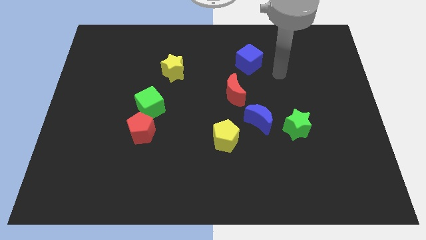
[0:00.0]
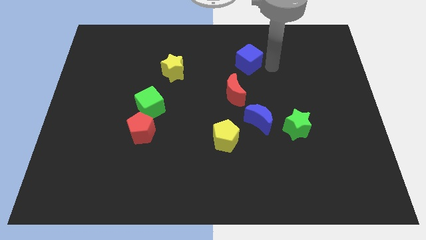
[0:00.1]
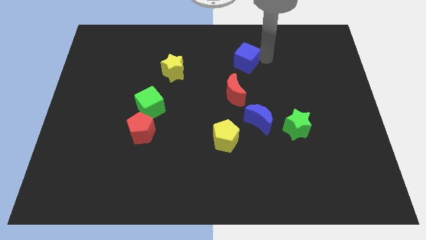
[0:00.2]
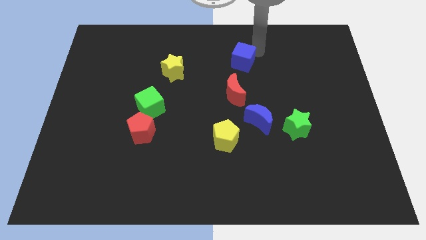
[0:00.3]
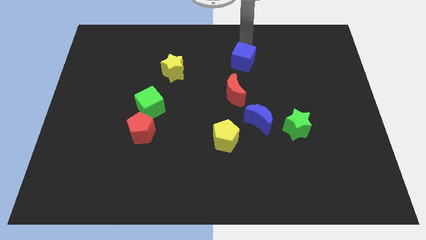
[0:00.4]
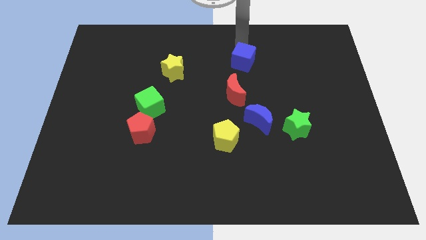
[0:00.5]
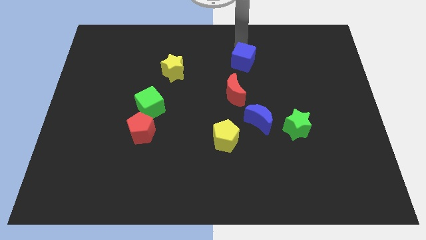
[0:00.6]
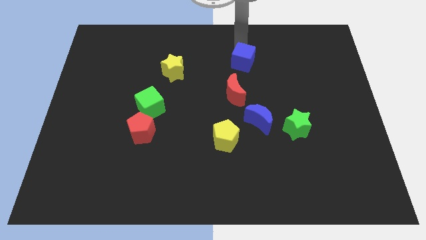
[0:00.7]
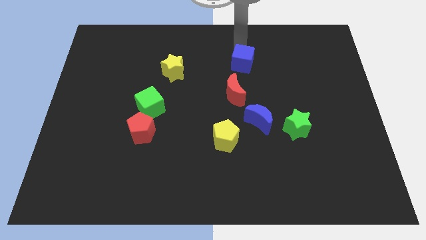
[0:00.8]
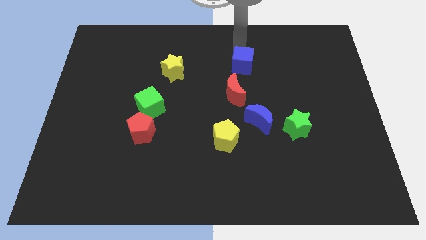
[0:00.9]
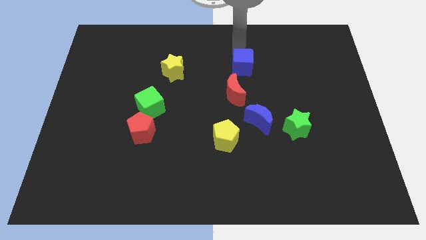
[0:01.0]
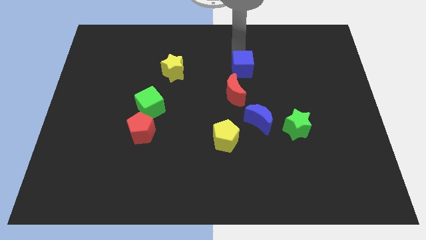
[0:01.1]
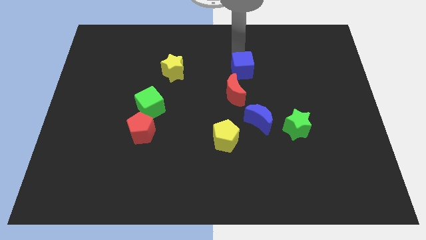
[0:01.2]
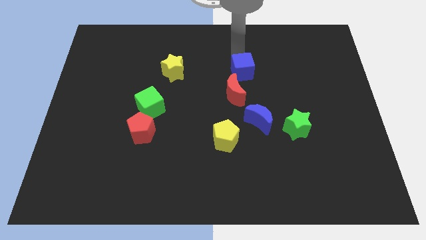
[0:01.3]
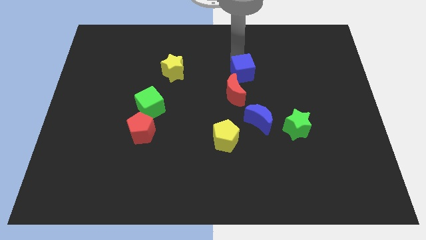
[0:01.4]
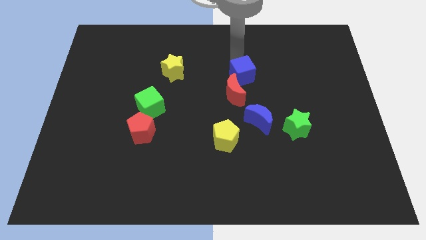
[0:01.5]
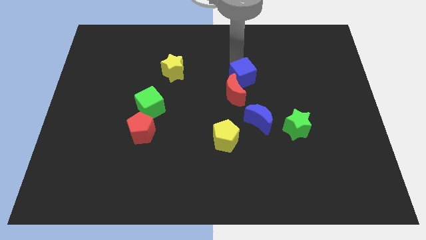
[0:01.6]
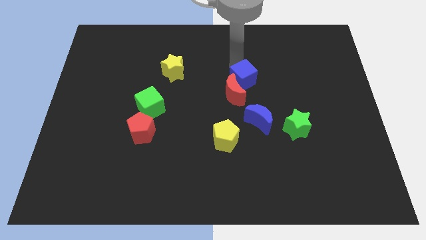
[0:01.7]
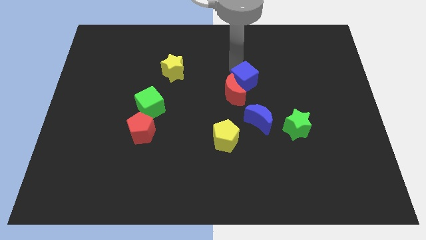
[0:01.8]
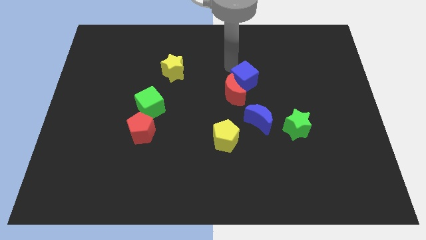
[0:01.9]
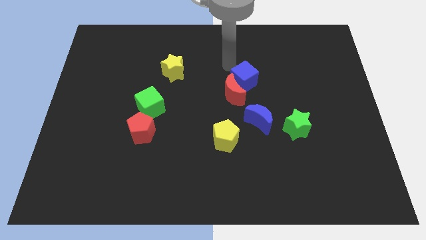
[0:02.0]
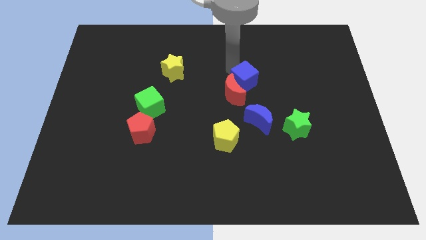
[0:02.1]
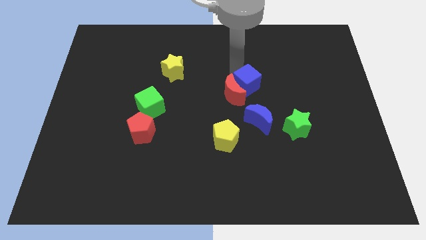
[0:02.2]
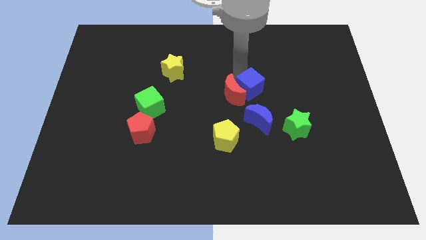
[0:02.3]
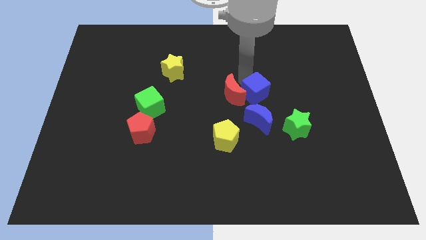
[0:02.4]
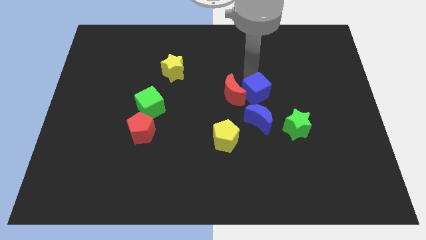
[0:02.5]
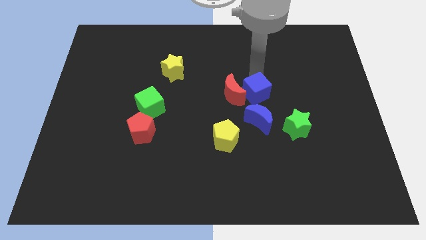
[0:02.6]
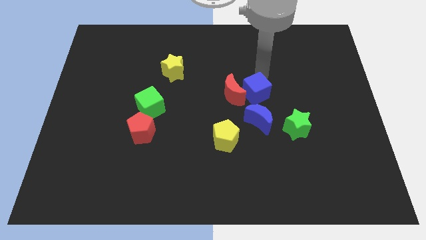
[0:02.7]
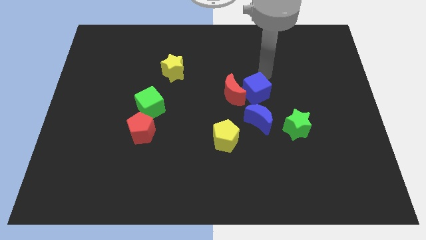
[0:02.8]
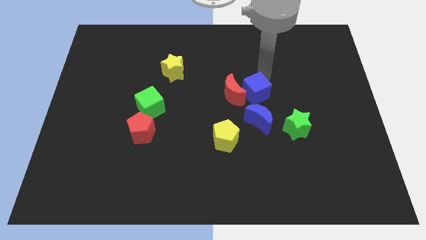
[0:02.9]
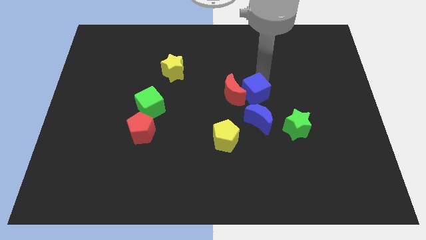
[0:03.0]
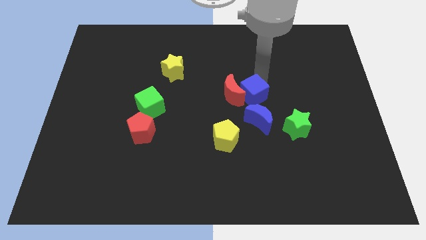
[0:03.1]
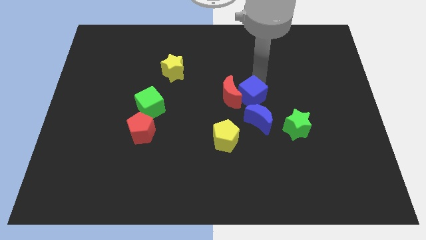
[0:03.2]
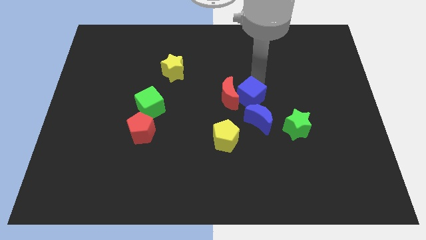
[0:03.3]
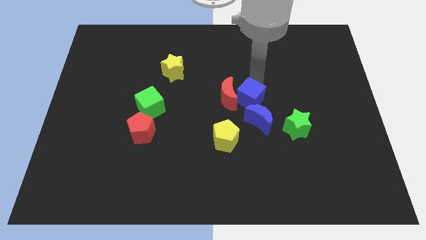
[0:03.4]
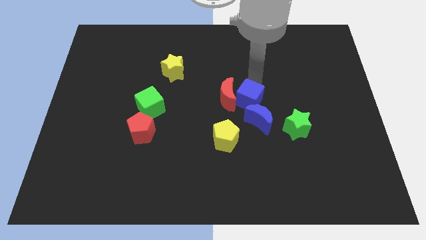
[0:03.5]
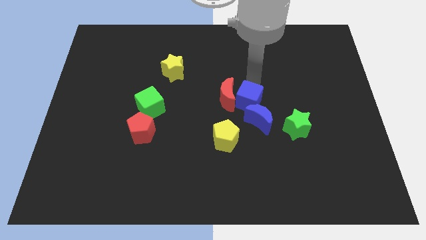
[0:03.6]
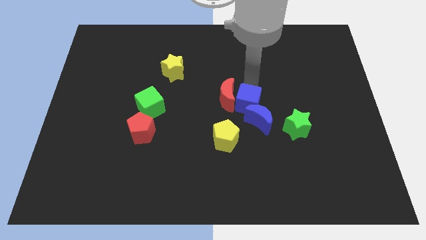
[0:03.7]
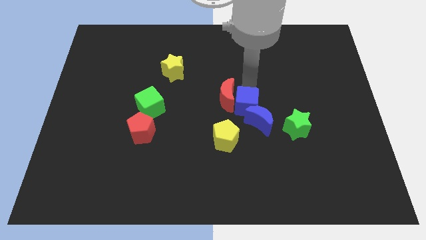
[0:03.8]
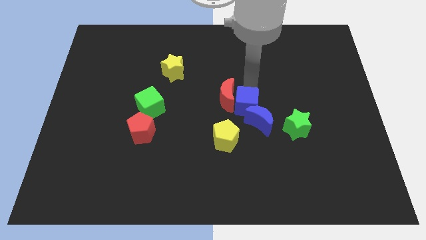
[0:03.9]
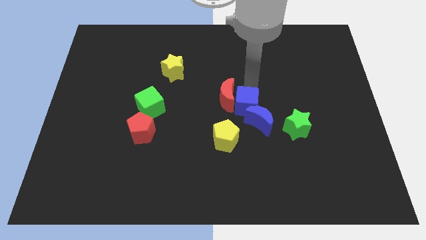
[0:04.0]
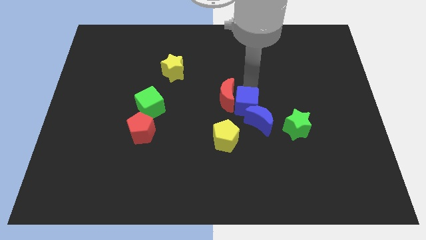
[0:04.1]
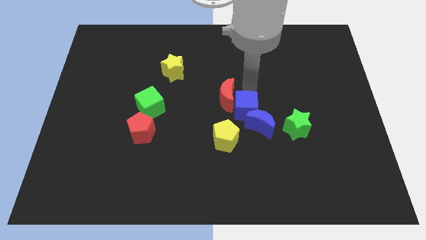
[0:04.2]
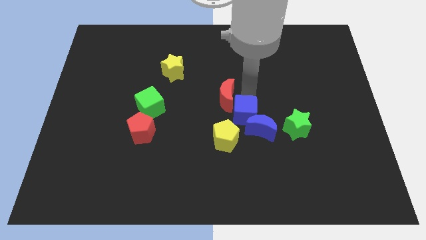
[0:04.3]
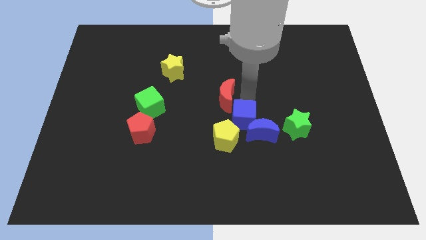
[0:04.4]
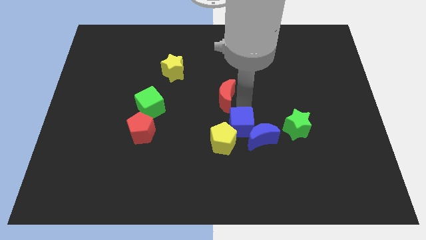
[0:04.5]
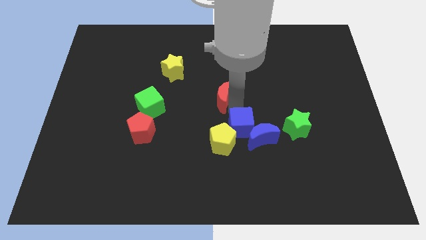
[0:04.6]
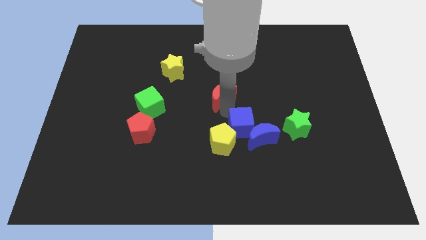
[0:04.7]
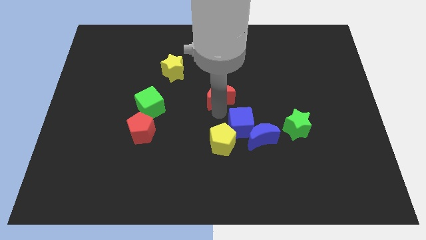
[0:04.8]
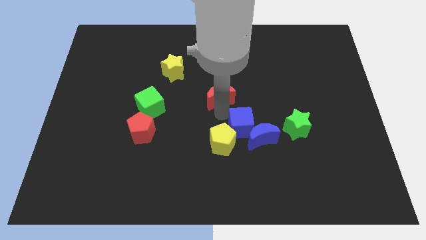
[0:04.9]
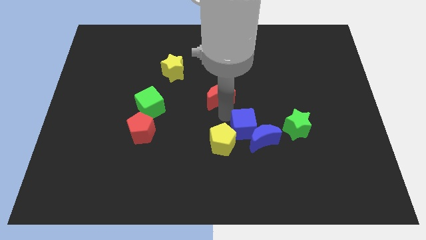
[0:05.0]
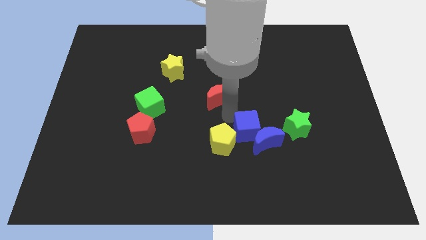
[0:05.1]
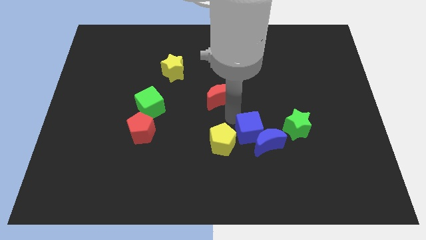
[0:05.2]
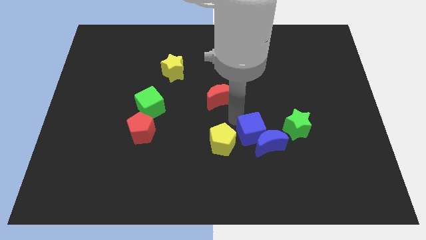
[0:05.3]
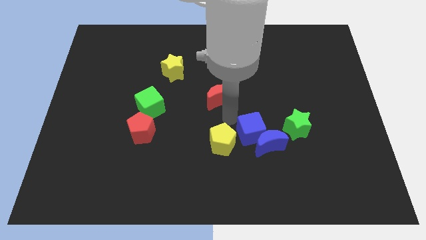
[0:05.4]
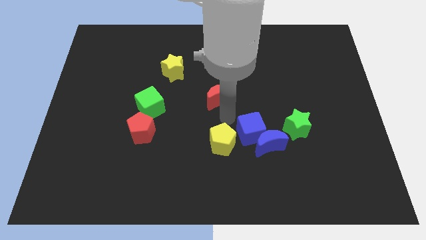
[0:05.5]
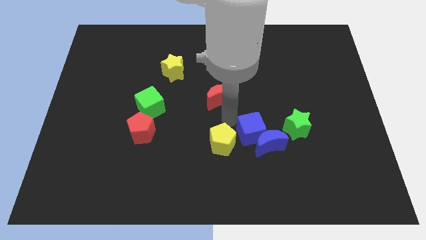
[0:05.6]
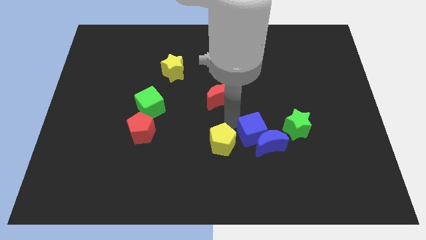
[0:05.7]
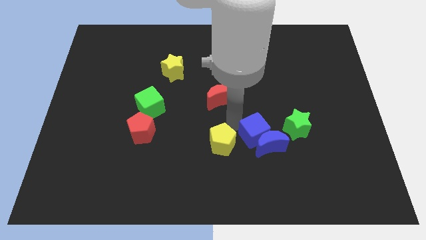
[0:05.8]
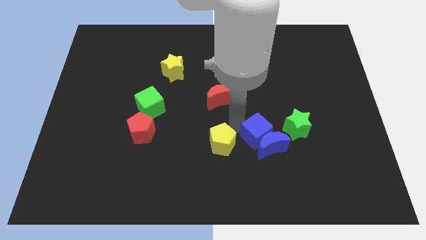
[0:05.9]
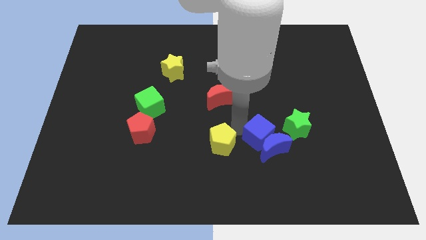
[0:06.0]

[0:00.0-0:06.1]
move the blue cube diagonally down and to the left of the green star
